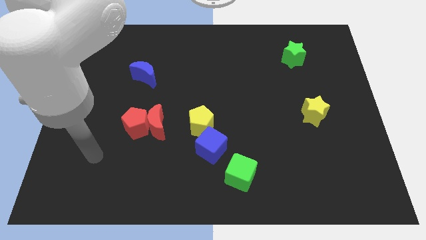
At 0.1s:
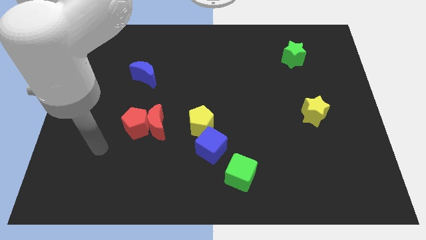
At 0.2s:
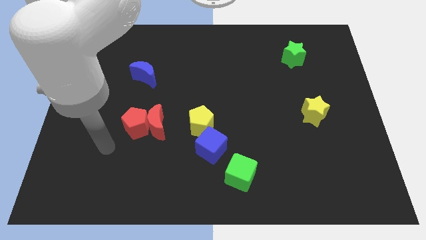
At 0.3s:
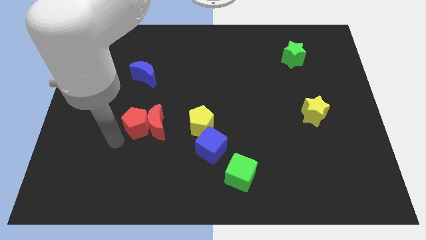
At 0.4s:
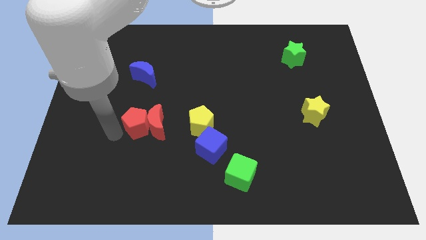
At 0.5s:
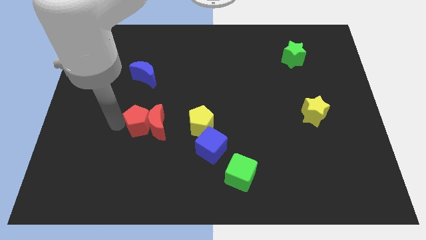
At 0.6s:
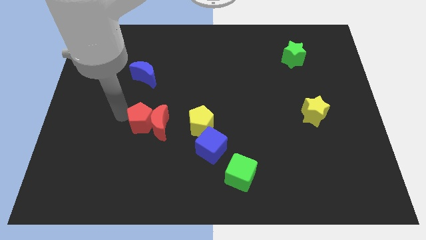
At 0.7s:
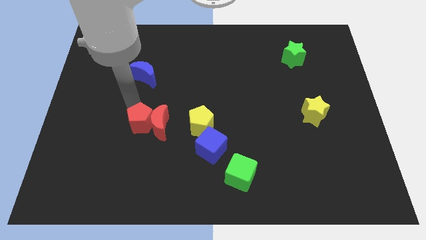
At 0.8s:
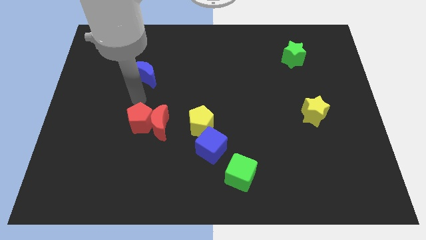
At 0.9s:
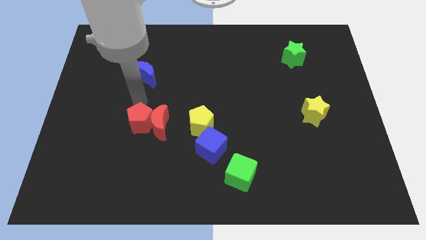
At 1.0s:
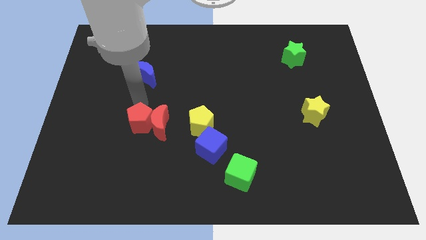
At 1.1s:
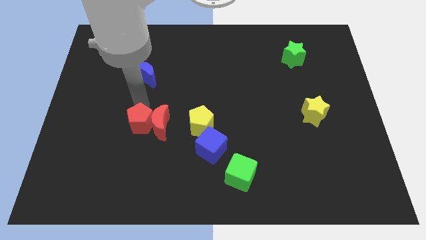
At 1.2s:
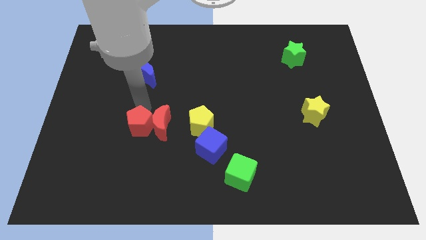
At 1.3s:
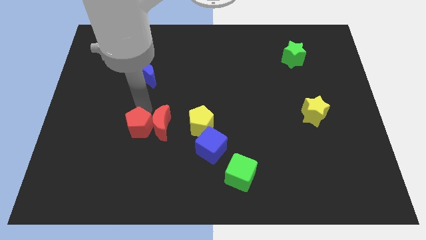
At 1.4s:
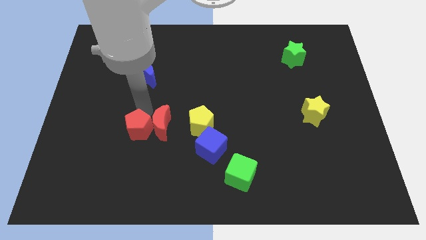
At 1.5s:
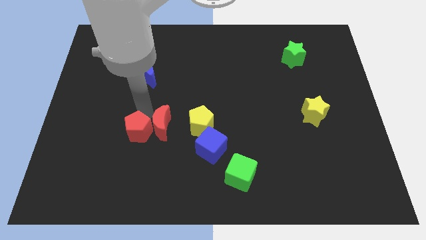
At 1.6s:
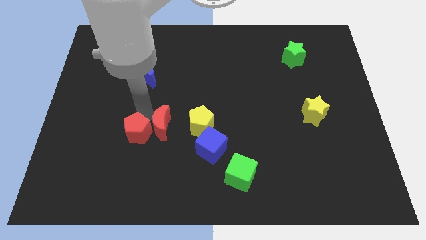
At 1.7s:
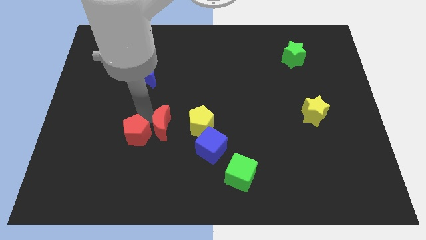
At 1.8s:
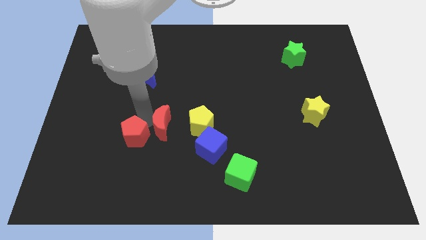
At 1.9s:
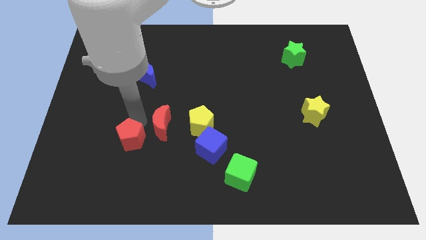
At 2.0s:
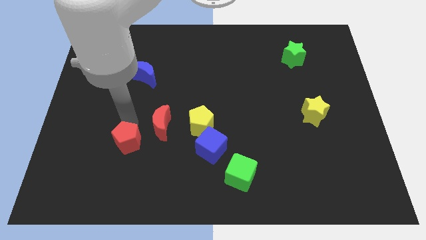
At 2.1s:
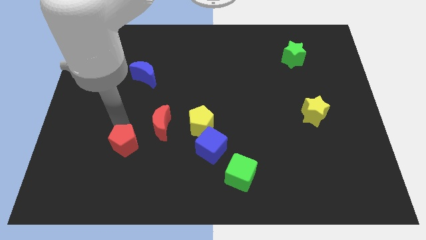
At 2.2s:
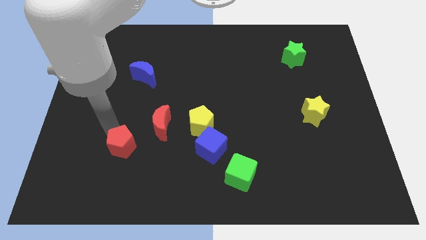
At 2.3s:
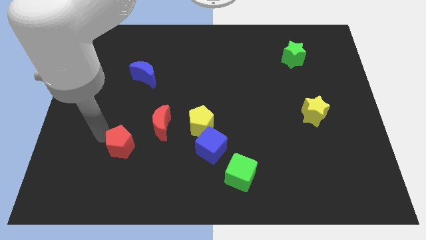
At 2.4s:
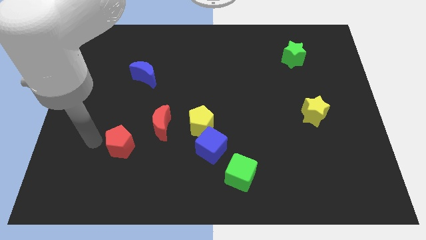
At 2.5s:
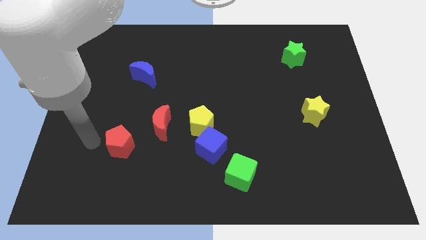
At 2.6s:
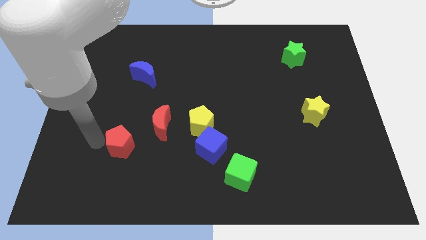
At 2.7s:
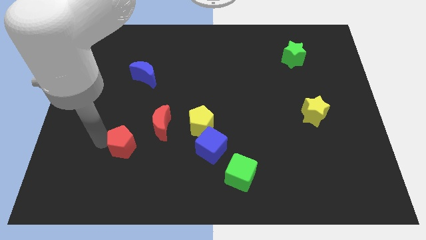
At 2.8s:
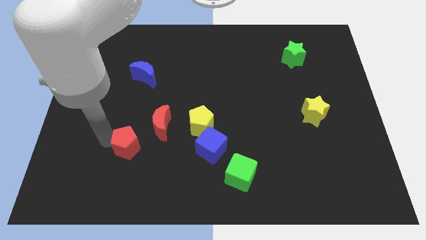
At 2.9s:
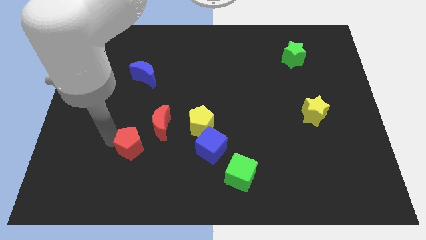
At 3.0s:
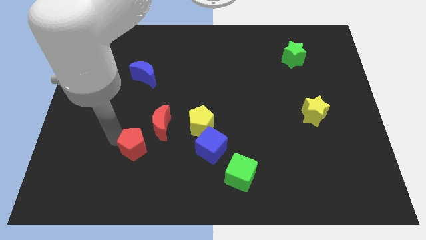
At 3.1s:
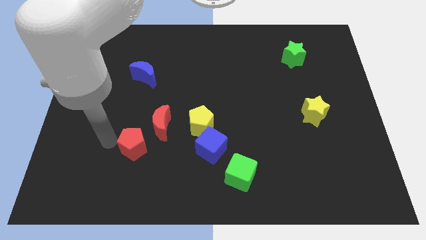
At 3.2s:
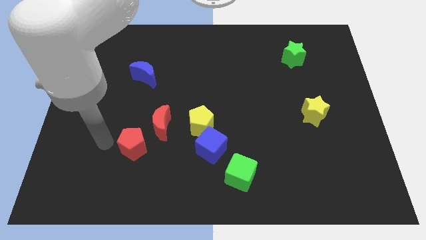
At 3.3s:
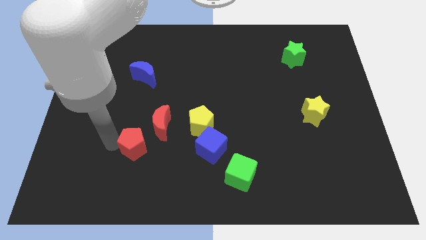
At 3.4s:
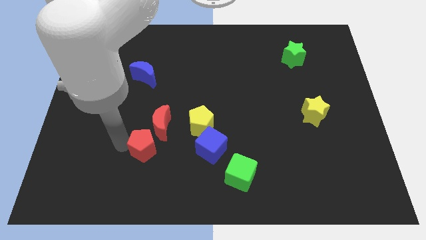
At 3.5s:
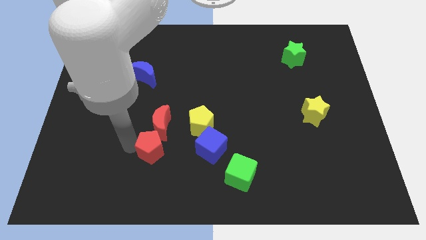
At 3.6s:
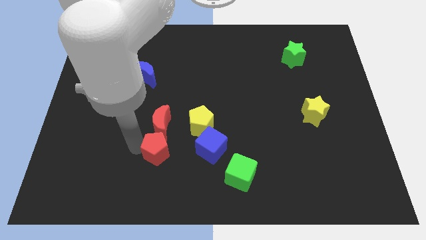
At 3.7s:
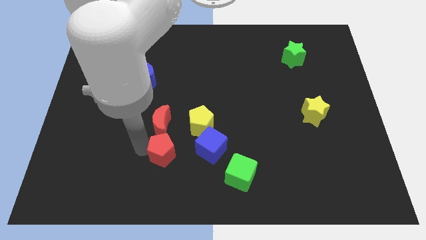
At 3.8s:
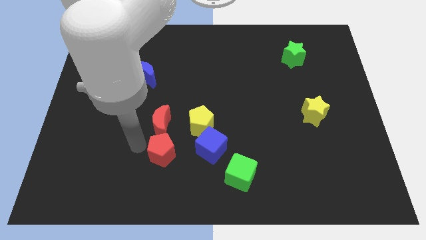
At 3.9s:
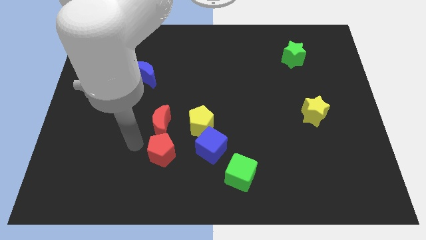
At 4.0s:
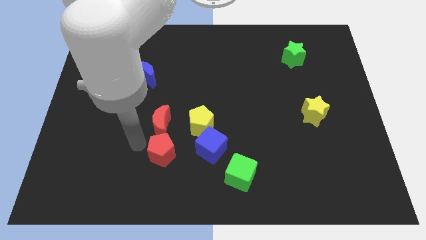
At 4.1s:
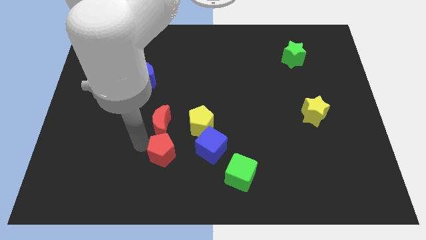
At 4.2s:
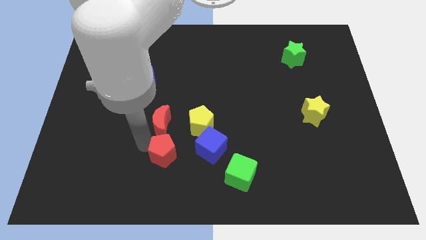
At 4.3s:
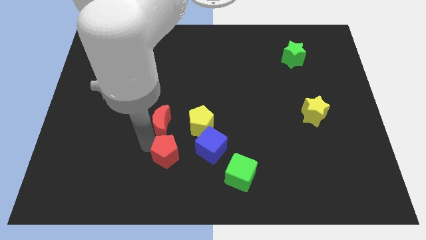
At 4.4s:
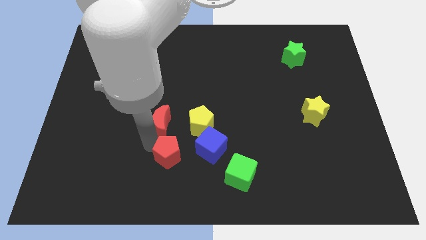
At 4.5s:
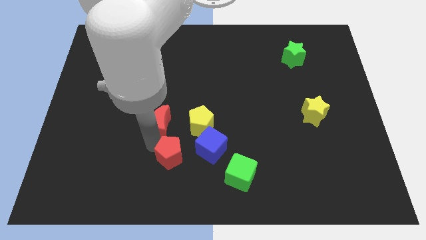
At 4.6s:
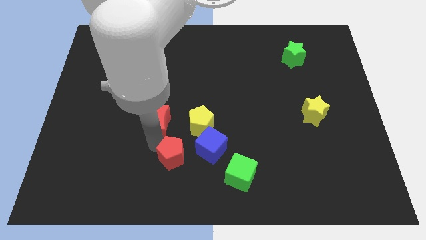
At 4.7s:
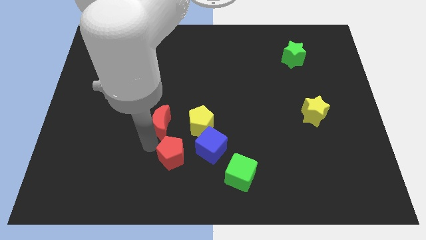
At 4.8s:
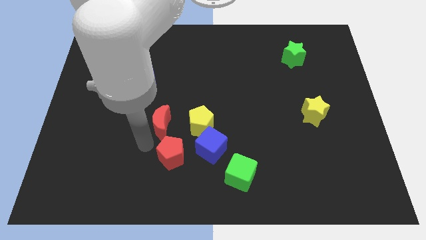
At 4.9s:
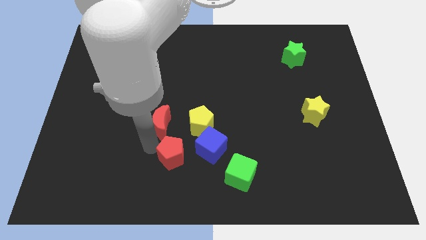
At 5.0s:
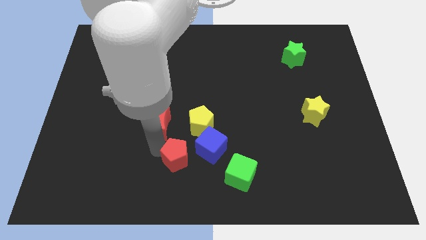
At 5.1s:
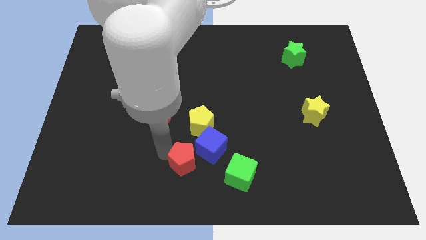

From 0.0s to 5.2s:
move the red pentagon to the bottom of the yellow pentagon

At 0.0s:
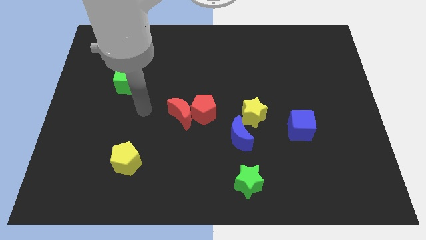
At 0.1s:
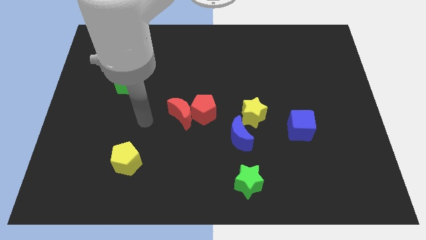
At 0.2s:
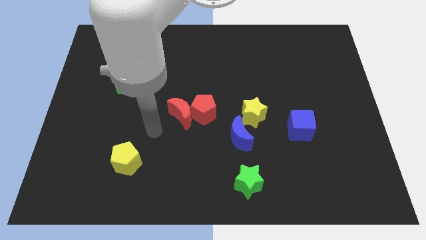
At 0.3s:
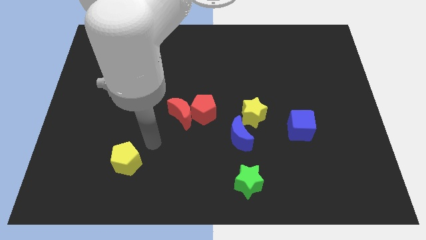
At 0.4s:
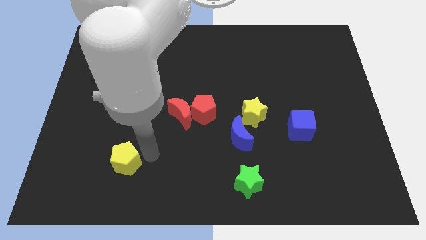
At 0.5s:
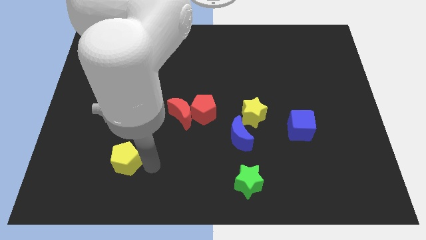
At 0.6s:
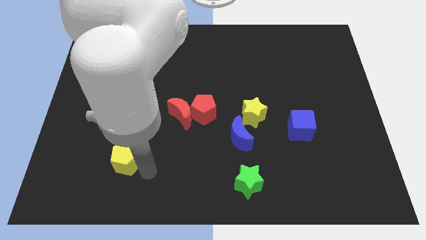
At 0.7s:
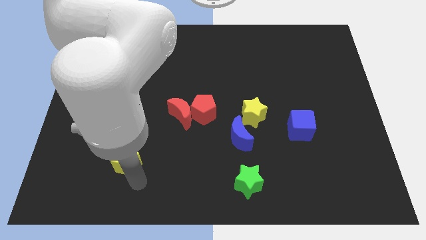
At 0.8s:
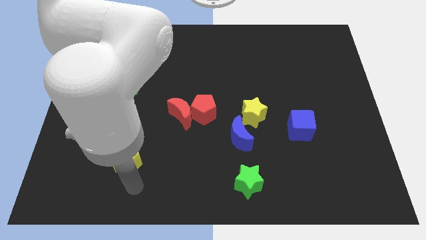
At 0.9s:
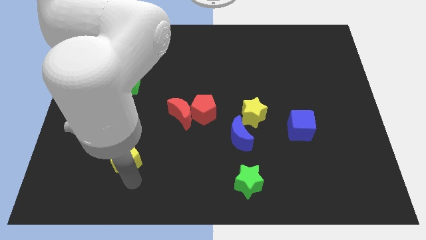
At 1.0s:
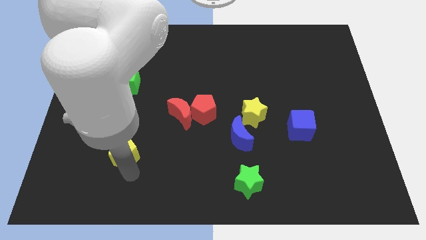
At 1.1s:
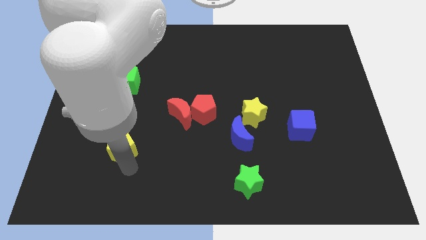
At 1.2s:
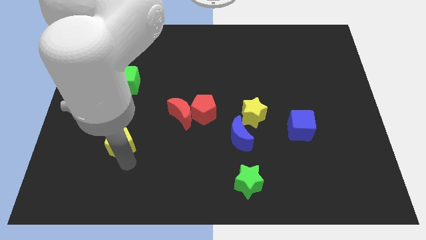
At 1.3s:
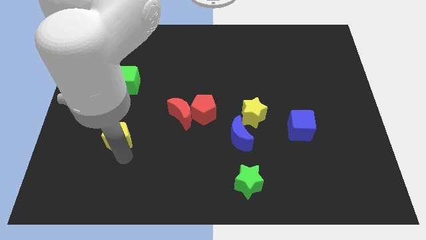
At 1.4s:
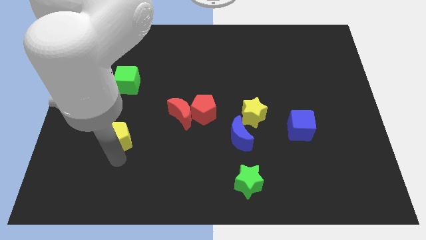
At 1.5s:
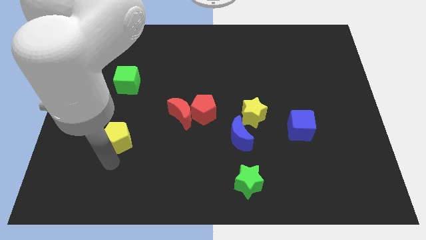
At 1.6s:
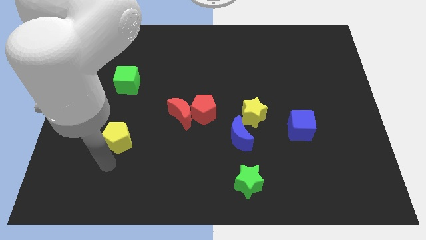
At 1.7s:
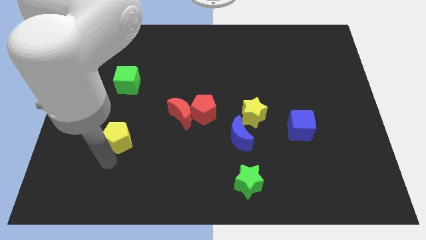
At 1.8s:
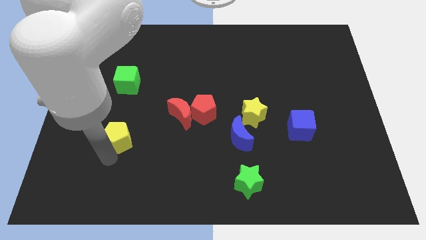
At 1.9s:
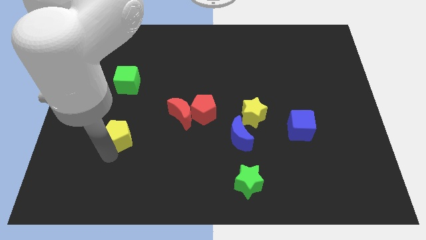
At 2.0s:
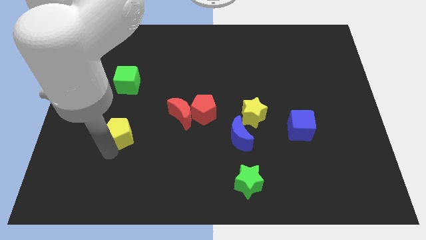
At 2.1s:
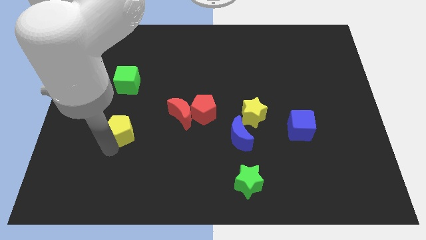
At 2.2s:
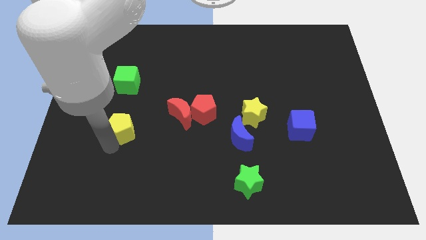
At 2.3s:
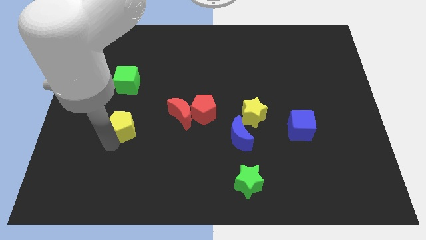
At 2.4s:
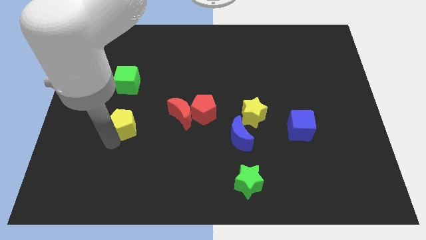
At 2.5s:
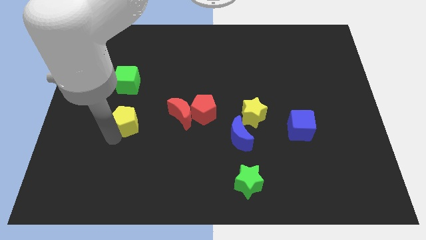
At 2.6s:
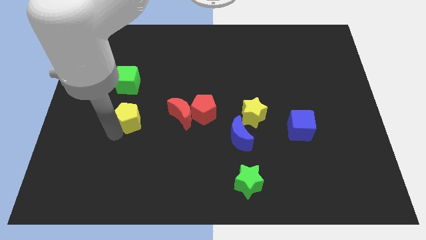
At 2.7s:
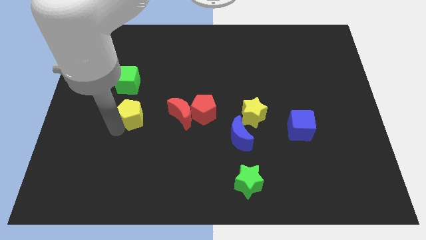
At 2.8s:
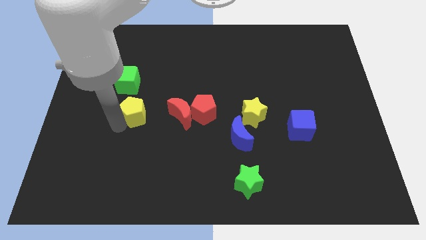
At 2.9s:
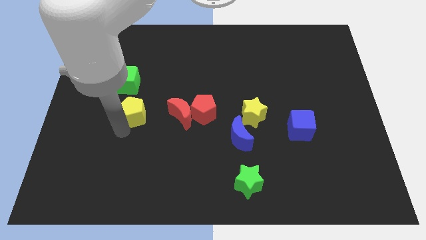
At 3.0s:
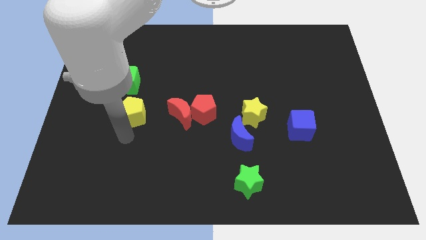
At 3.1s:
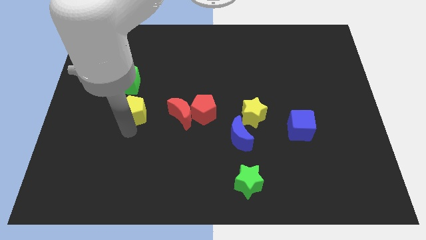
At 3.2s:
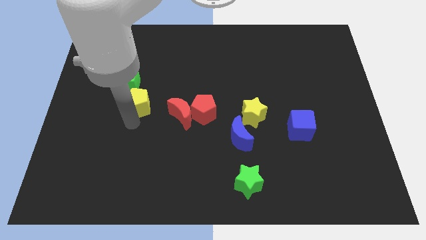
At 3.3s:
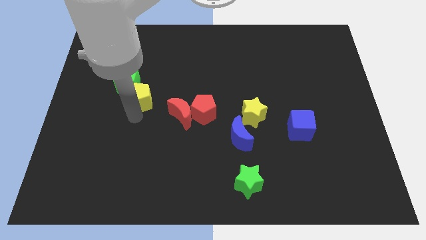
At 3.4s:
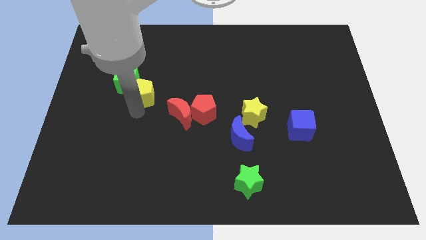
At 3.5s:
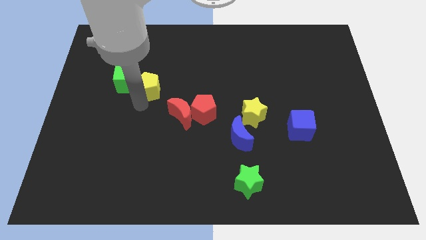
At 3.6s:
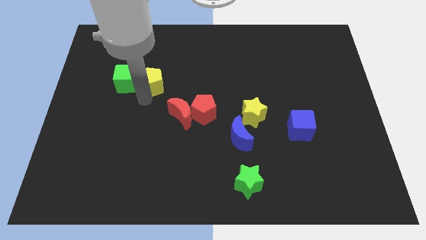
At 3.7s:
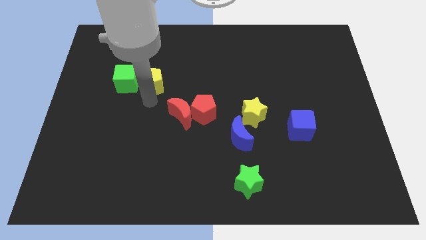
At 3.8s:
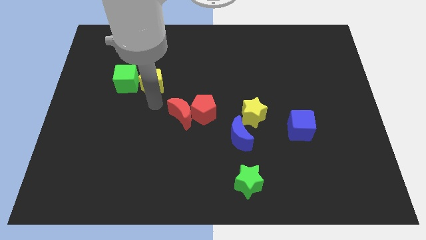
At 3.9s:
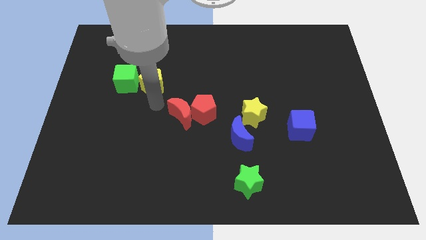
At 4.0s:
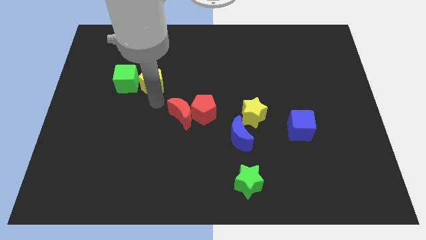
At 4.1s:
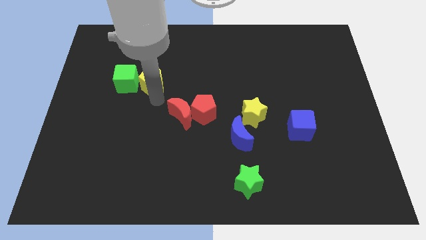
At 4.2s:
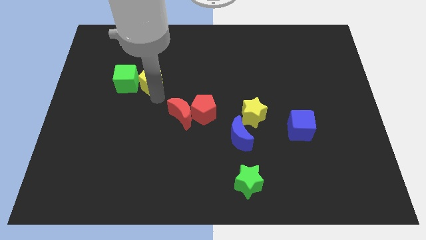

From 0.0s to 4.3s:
move the yellow pentagon diagonally up and to the right of the green cube
